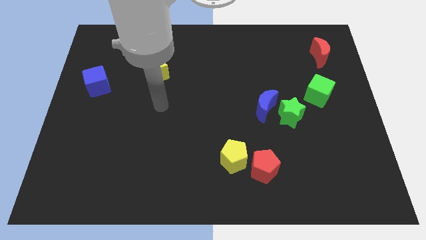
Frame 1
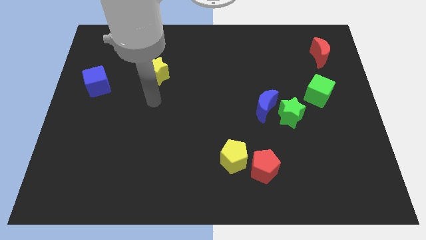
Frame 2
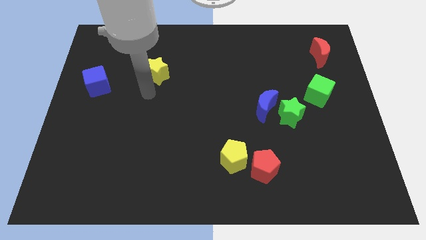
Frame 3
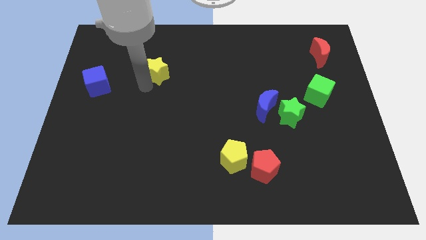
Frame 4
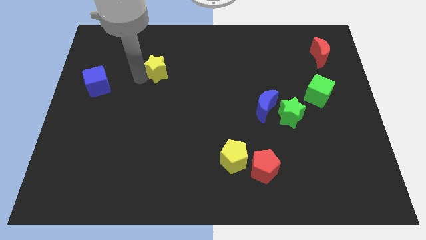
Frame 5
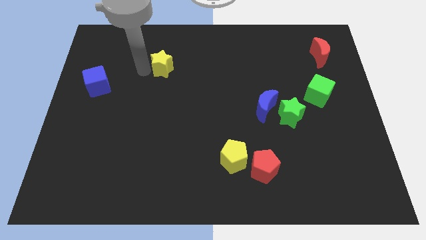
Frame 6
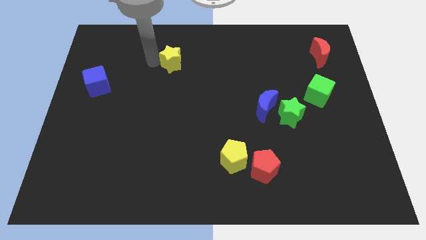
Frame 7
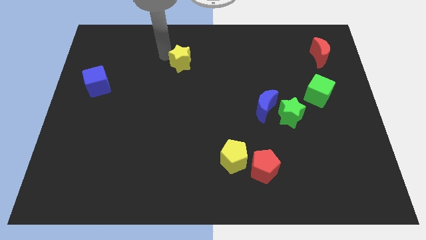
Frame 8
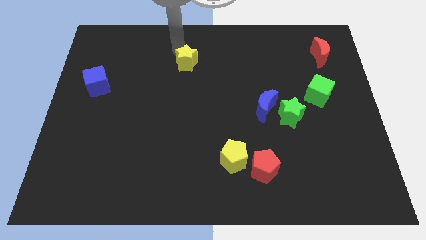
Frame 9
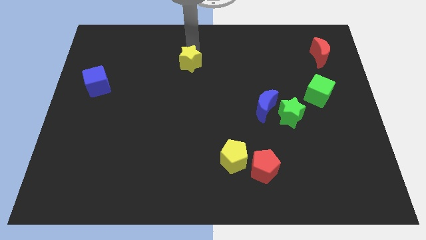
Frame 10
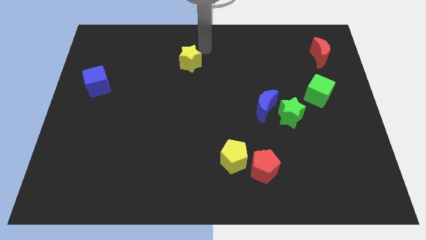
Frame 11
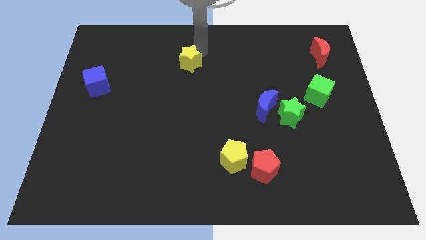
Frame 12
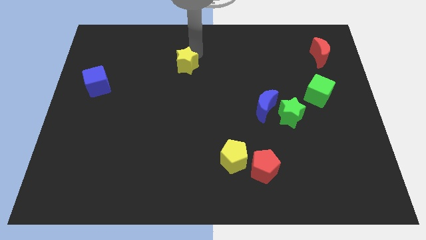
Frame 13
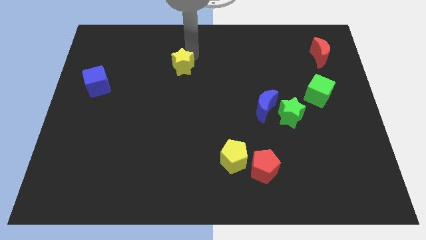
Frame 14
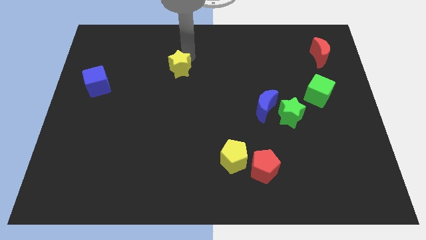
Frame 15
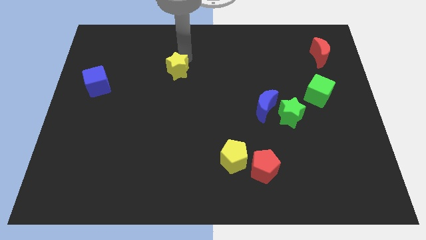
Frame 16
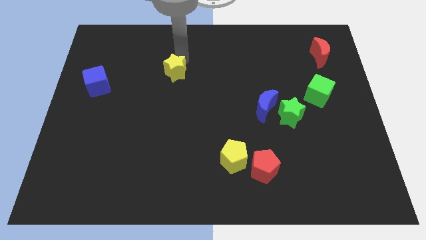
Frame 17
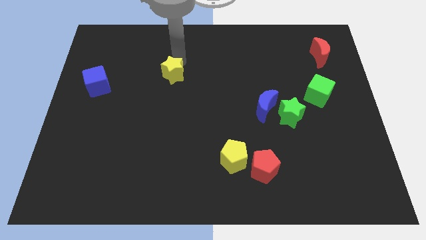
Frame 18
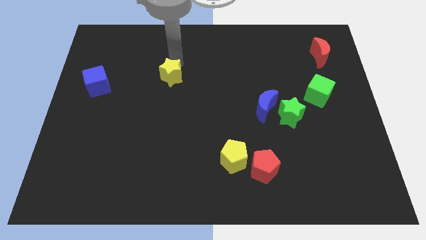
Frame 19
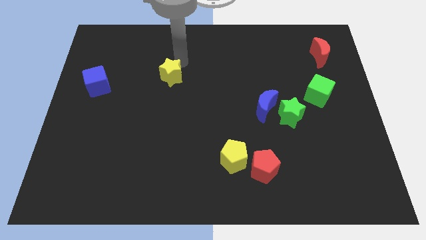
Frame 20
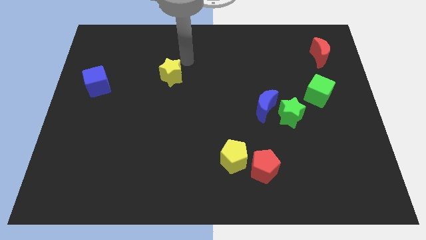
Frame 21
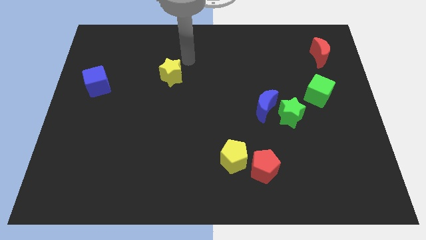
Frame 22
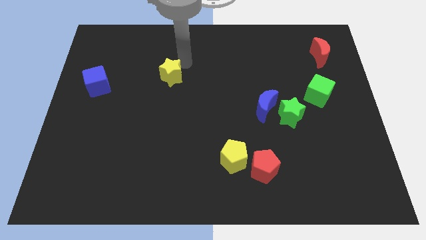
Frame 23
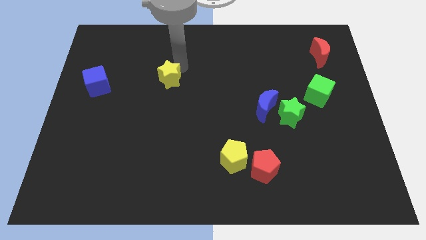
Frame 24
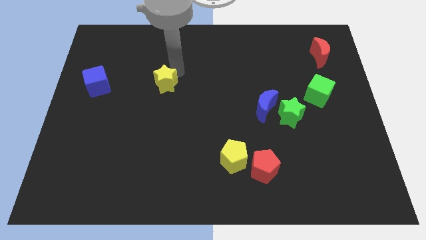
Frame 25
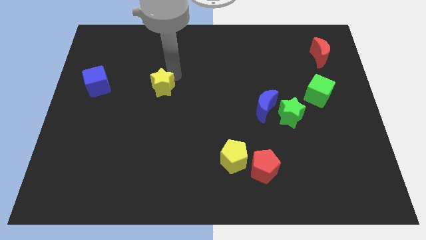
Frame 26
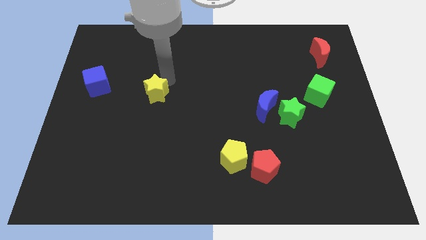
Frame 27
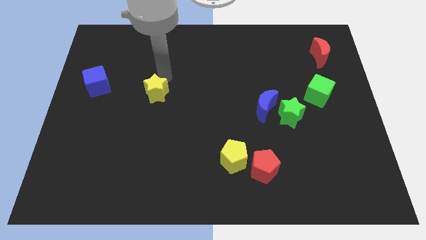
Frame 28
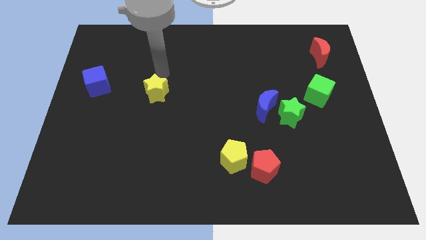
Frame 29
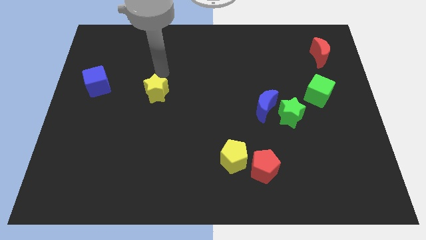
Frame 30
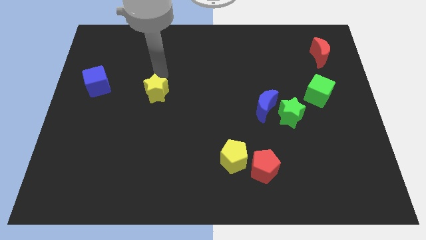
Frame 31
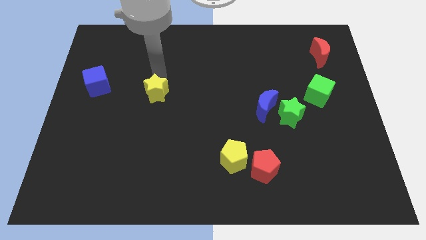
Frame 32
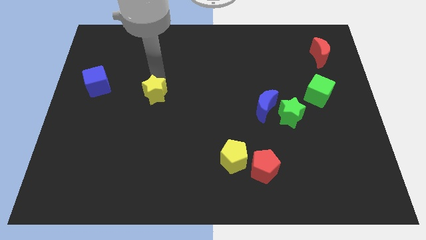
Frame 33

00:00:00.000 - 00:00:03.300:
move the yellow star downwards a bit

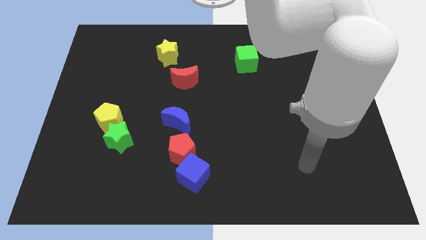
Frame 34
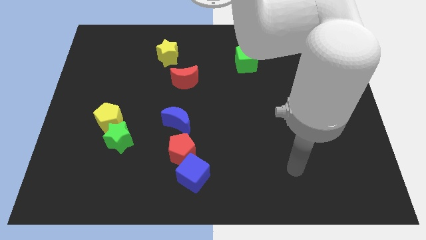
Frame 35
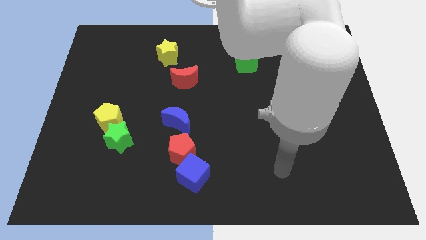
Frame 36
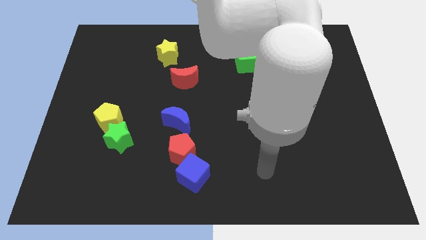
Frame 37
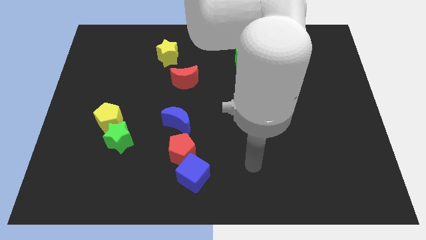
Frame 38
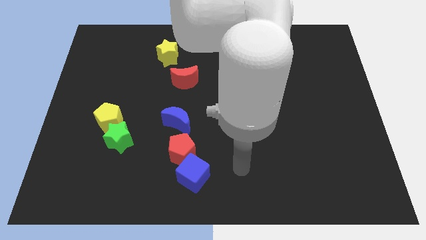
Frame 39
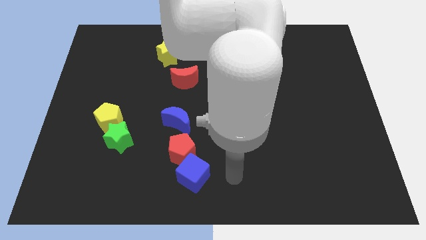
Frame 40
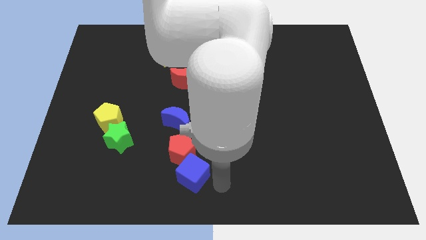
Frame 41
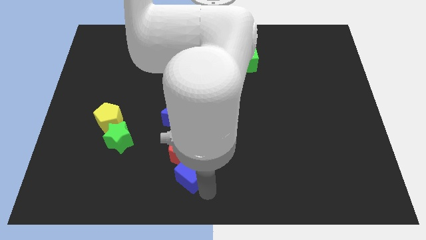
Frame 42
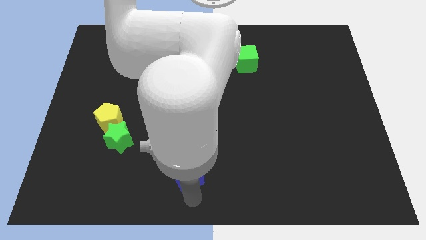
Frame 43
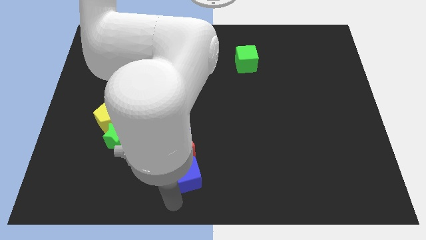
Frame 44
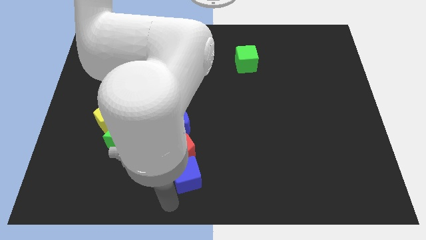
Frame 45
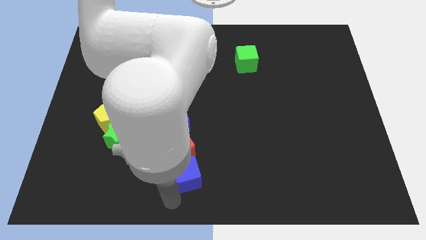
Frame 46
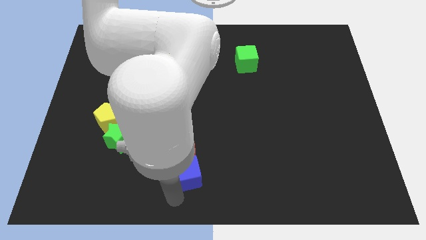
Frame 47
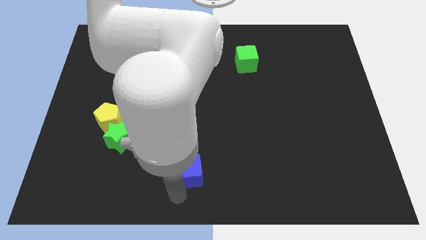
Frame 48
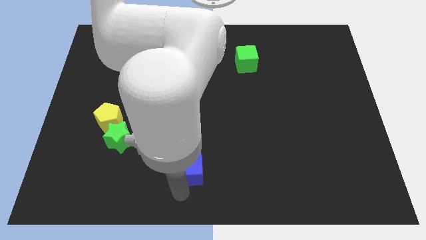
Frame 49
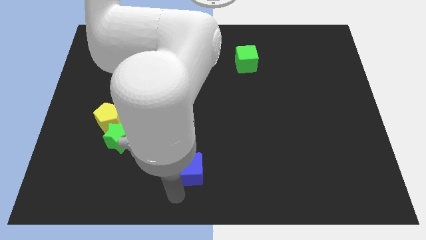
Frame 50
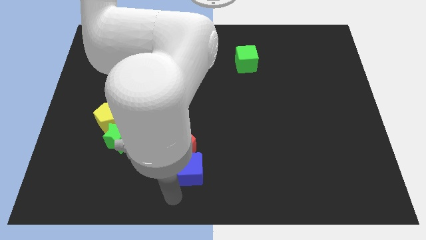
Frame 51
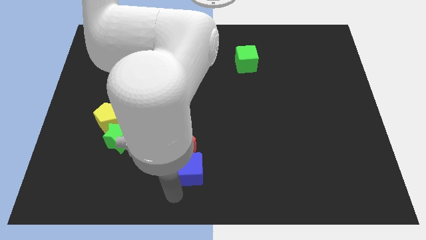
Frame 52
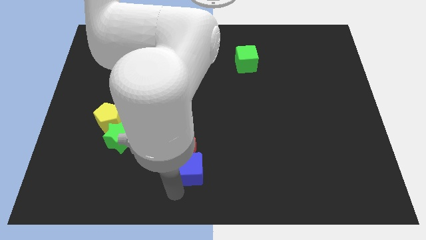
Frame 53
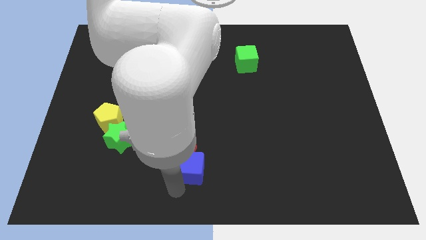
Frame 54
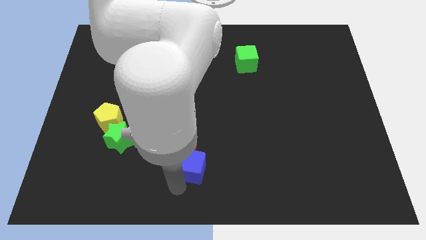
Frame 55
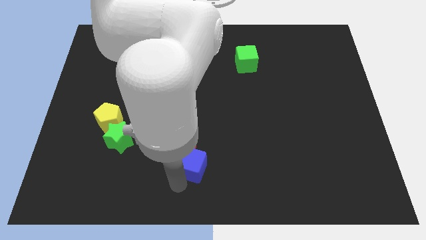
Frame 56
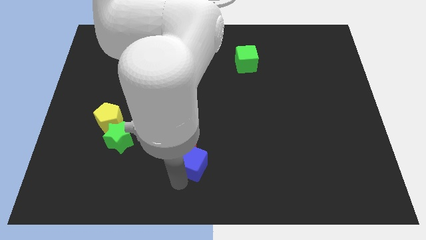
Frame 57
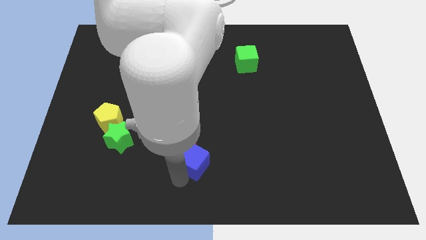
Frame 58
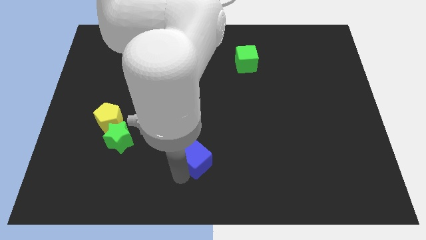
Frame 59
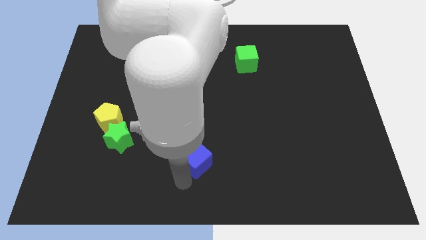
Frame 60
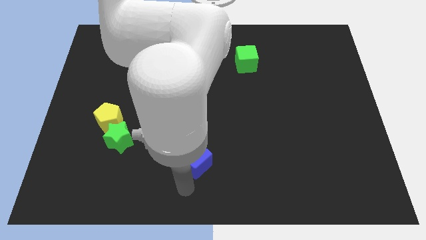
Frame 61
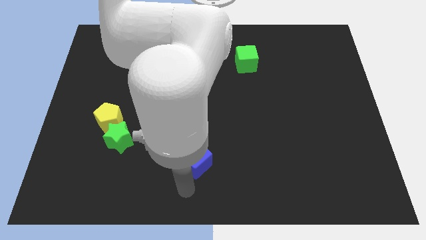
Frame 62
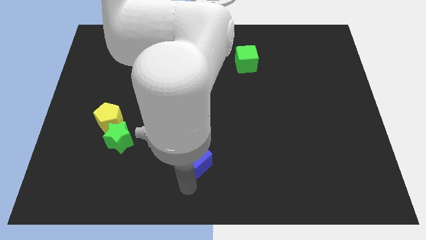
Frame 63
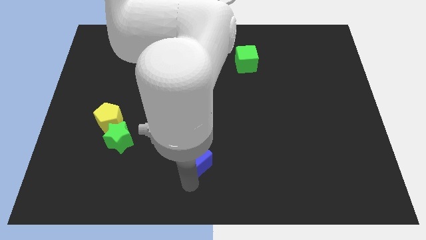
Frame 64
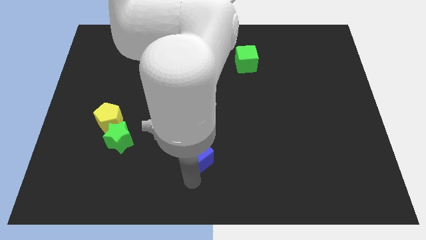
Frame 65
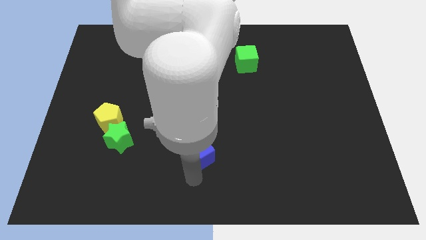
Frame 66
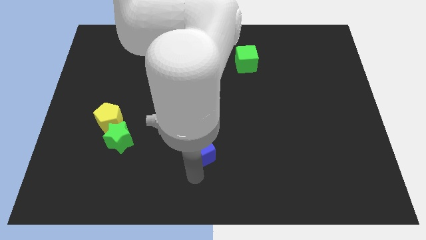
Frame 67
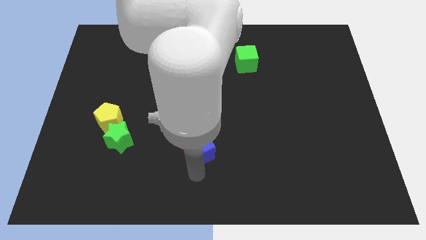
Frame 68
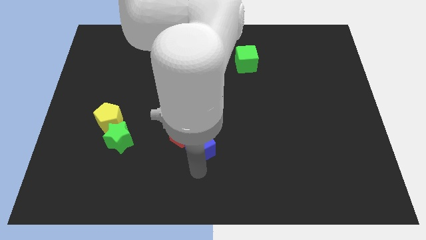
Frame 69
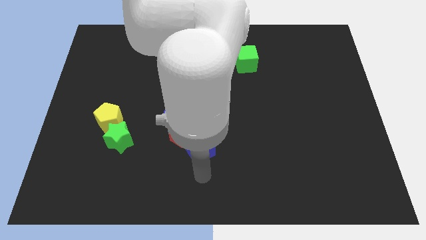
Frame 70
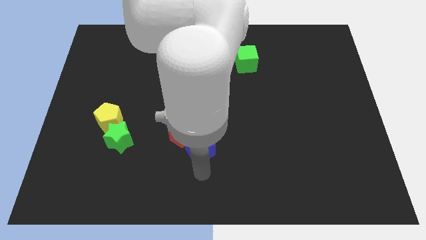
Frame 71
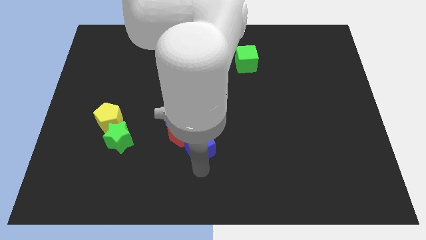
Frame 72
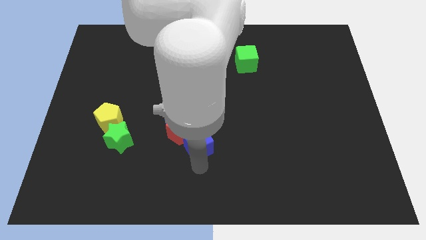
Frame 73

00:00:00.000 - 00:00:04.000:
slightly slide the blue cube up

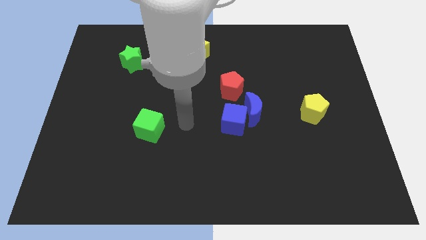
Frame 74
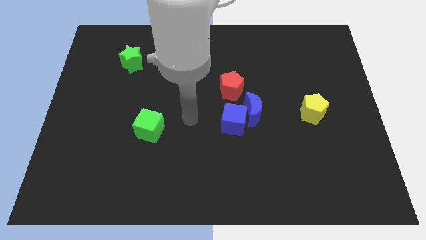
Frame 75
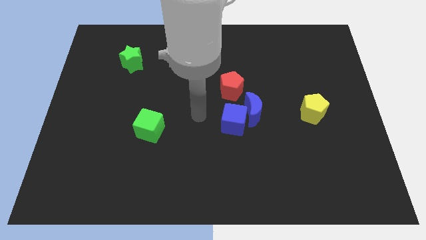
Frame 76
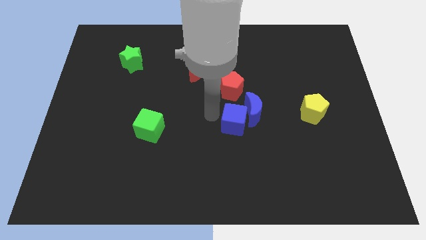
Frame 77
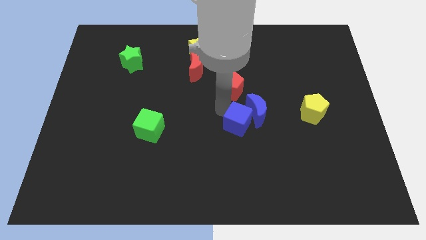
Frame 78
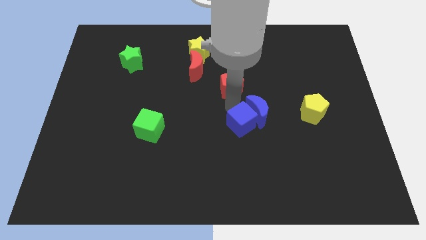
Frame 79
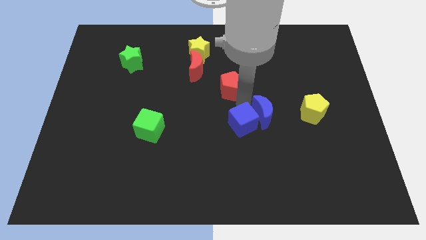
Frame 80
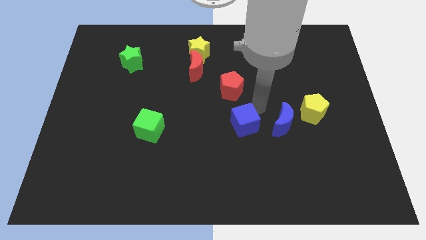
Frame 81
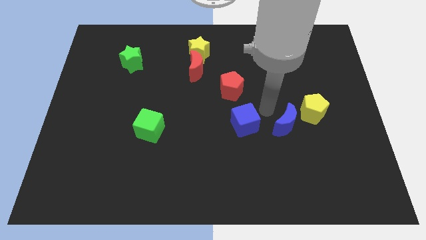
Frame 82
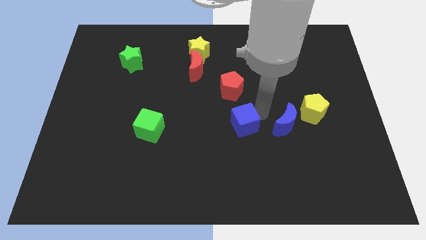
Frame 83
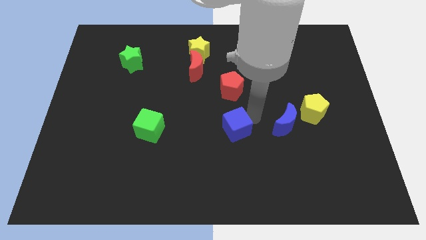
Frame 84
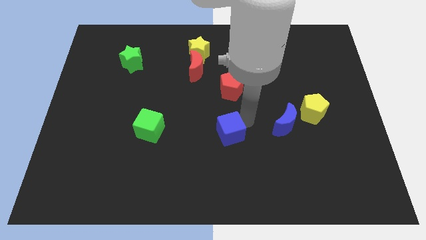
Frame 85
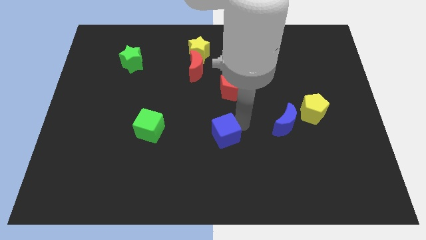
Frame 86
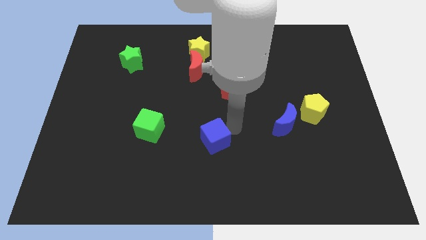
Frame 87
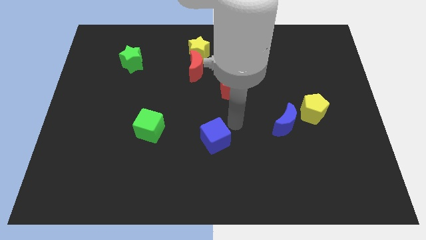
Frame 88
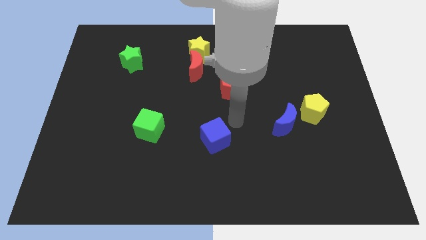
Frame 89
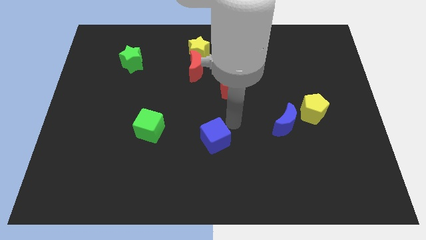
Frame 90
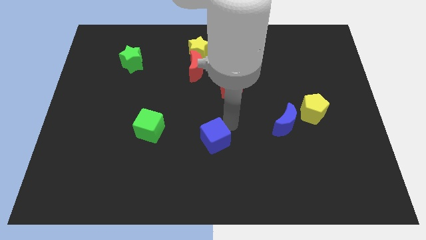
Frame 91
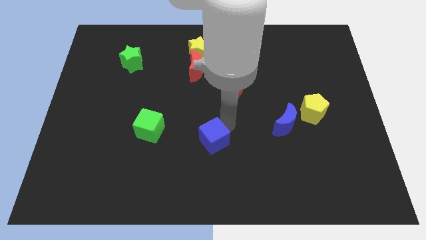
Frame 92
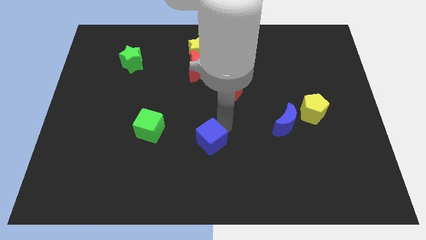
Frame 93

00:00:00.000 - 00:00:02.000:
push the blue cube a little downwards and to the left
